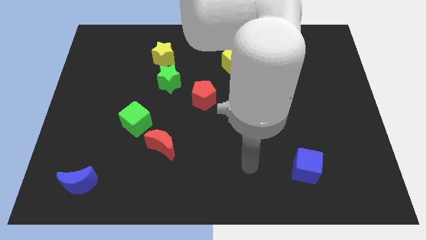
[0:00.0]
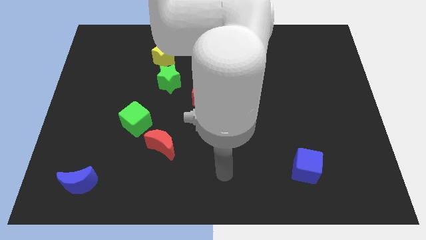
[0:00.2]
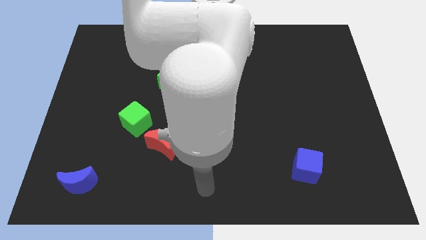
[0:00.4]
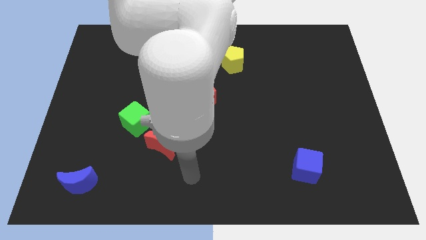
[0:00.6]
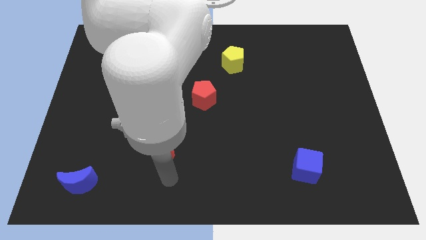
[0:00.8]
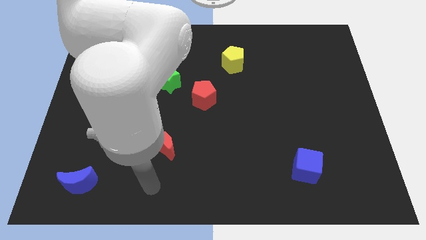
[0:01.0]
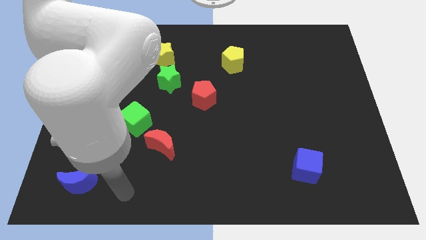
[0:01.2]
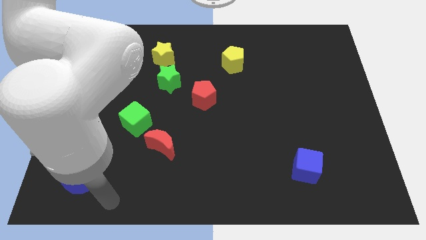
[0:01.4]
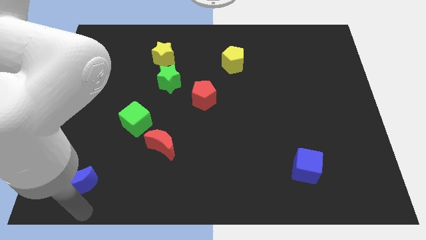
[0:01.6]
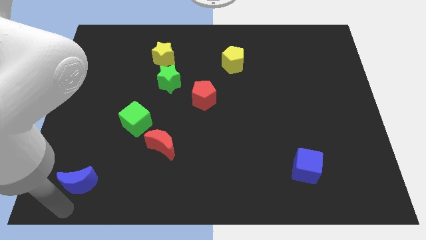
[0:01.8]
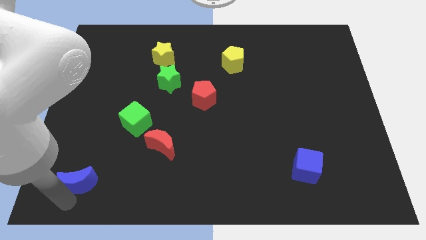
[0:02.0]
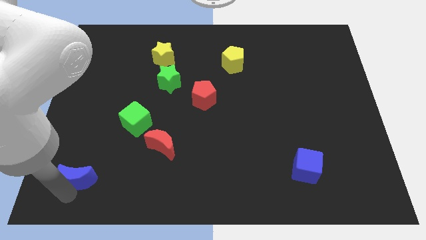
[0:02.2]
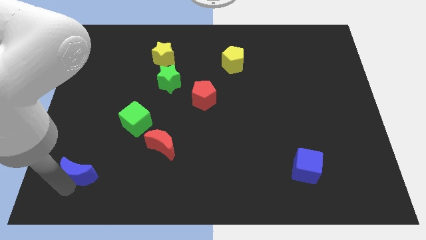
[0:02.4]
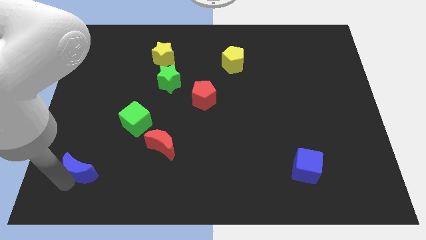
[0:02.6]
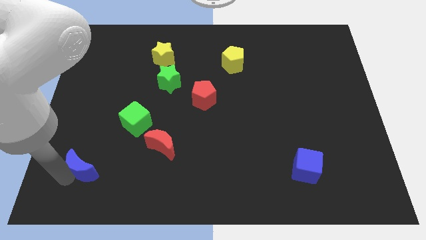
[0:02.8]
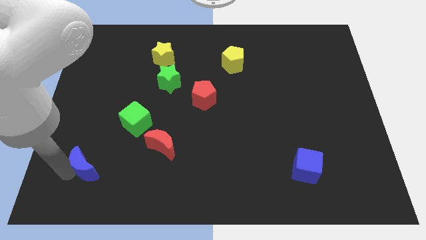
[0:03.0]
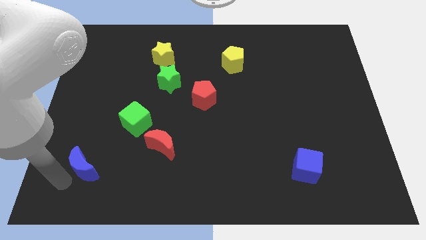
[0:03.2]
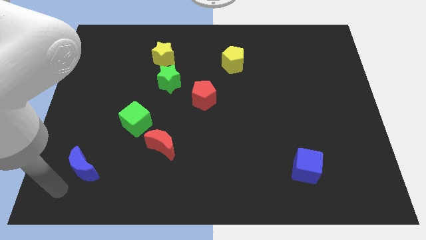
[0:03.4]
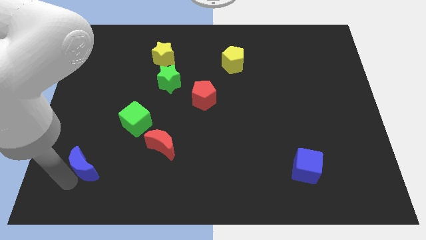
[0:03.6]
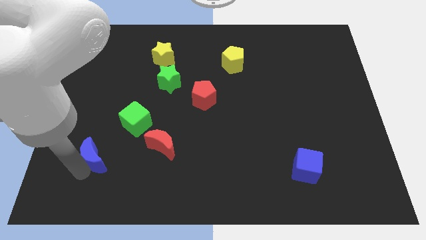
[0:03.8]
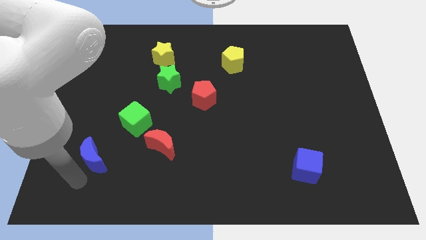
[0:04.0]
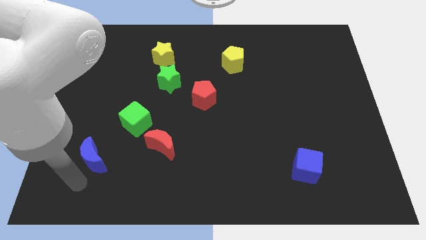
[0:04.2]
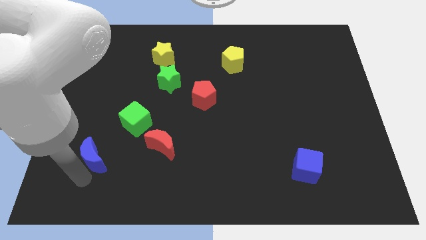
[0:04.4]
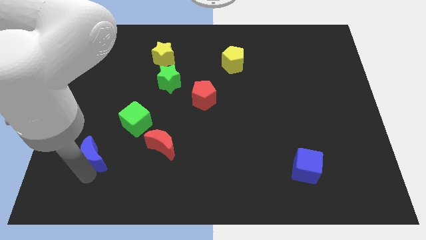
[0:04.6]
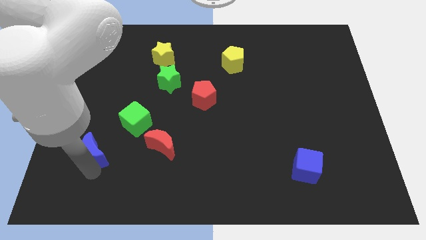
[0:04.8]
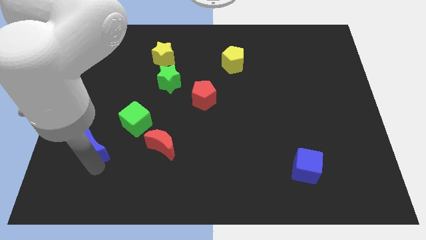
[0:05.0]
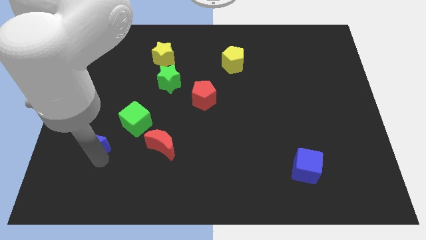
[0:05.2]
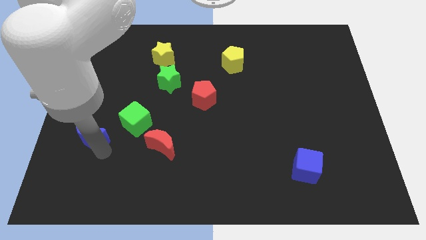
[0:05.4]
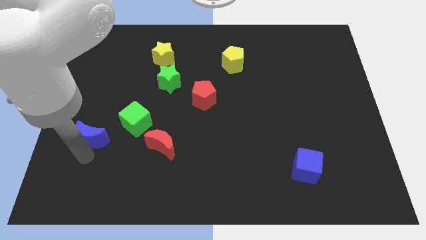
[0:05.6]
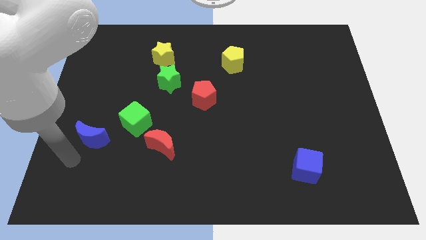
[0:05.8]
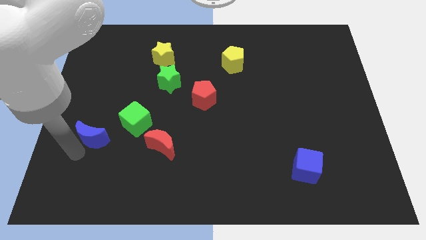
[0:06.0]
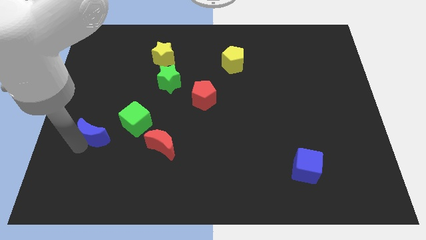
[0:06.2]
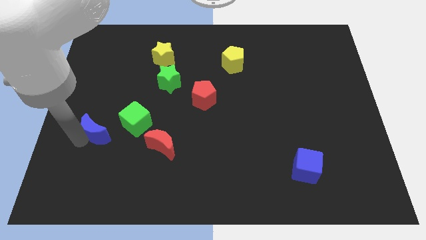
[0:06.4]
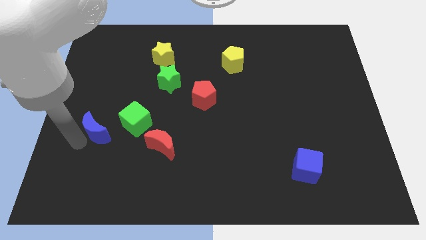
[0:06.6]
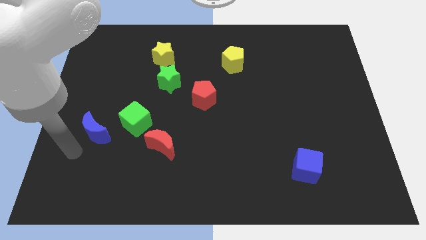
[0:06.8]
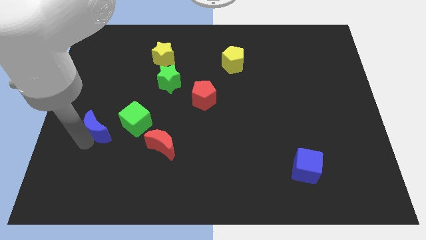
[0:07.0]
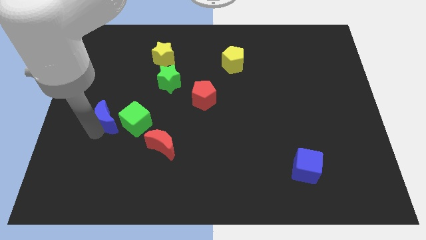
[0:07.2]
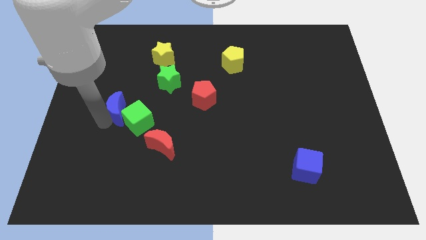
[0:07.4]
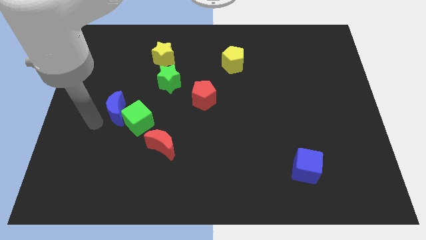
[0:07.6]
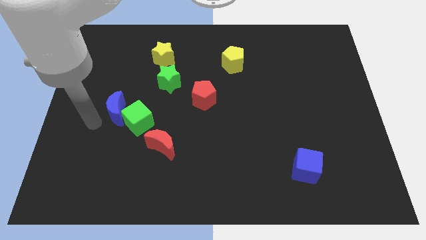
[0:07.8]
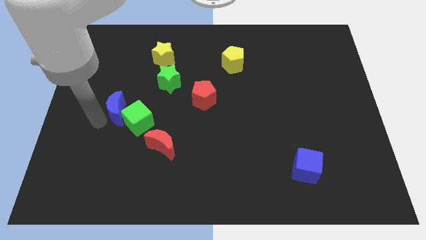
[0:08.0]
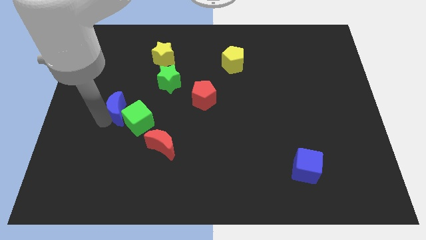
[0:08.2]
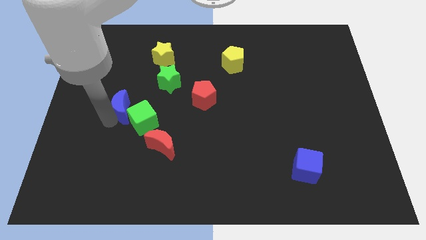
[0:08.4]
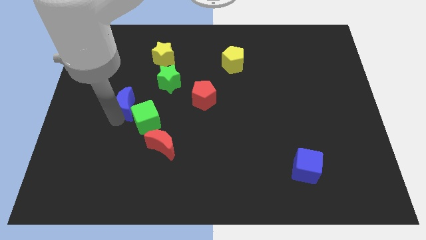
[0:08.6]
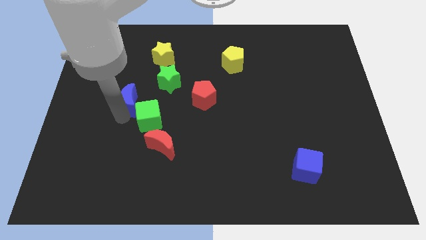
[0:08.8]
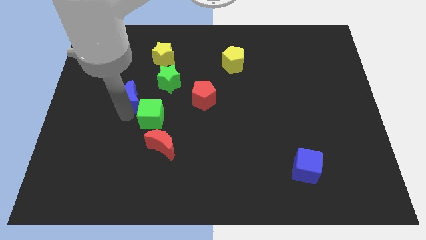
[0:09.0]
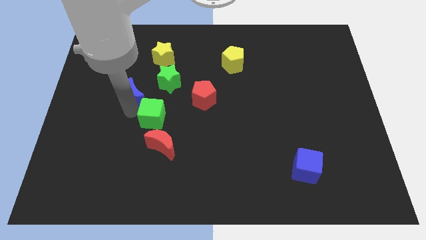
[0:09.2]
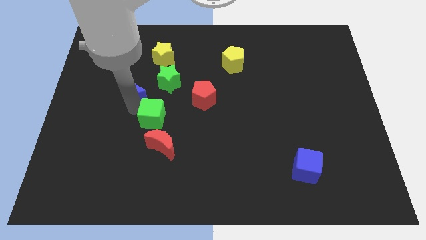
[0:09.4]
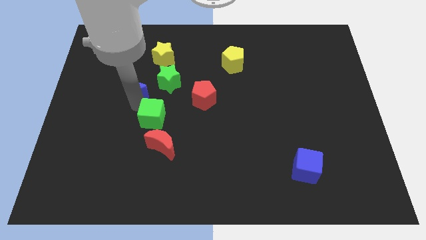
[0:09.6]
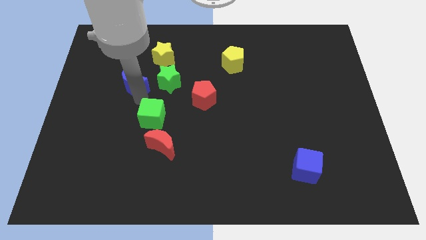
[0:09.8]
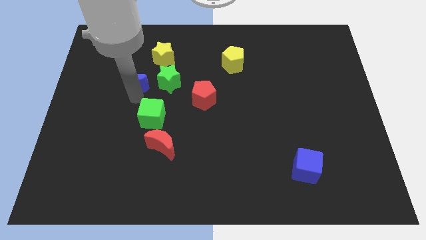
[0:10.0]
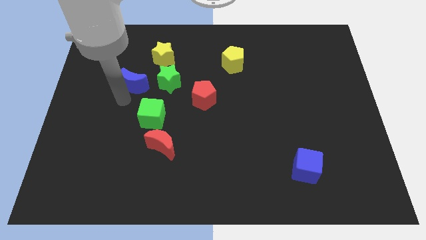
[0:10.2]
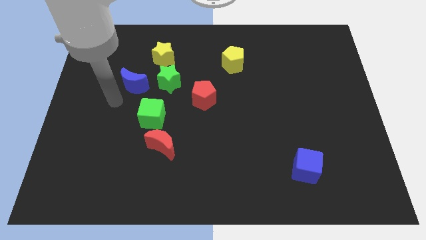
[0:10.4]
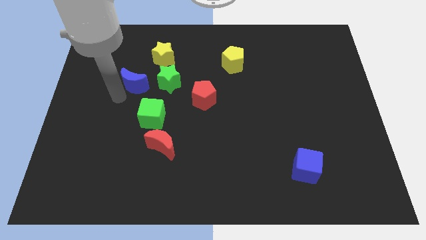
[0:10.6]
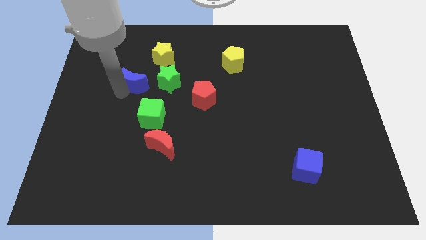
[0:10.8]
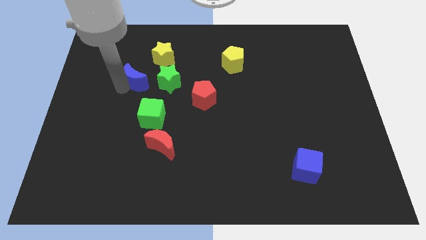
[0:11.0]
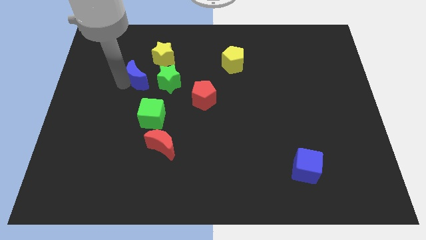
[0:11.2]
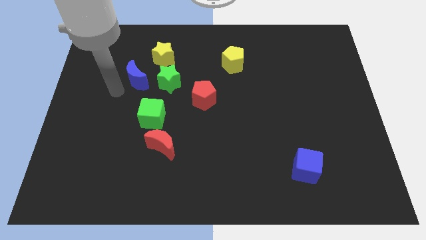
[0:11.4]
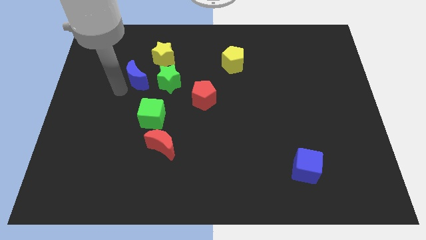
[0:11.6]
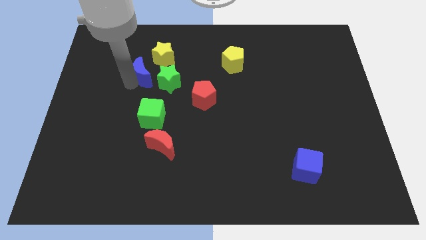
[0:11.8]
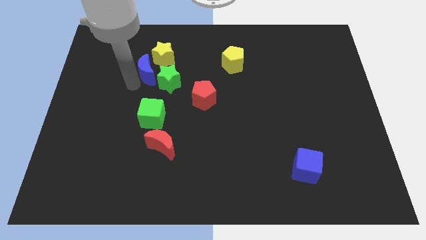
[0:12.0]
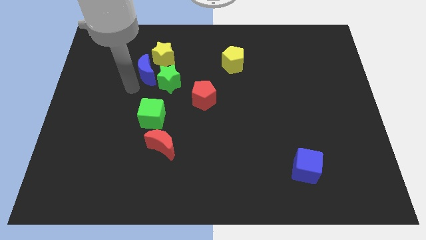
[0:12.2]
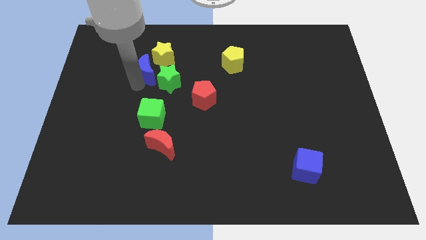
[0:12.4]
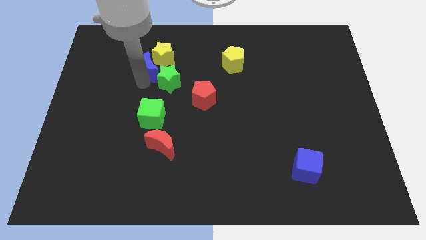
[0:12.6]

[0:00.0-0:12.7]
move the blue moon next to the yellow star

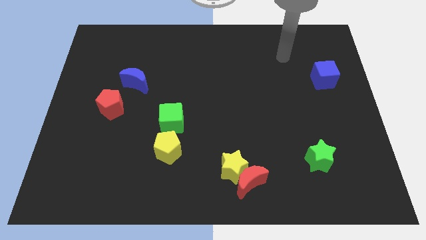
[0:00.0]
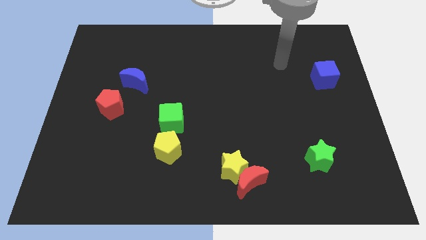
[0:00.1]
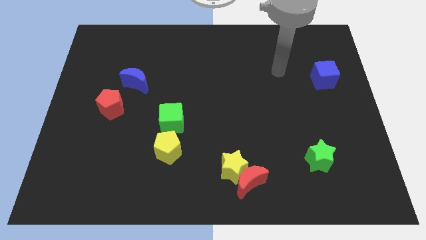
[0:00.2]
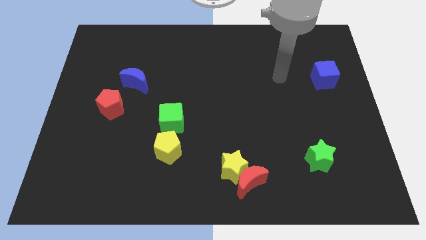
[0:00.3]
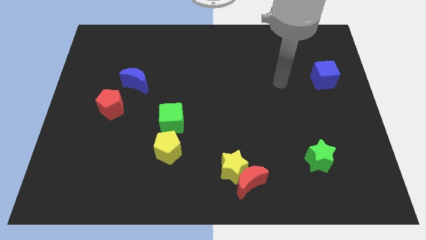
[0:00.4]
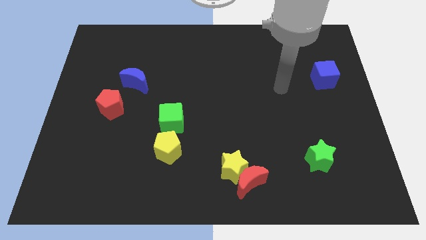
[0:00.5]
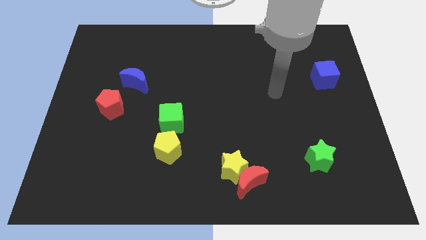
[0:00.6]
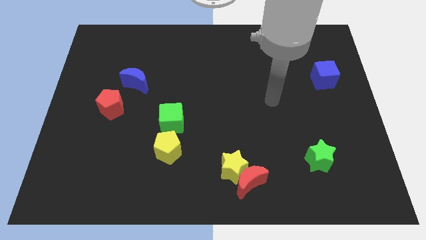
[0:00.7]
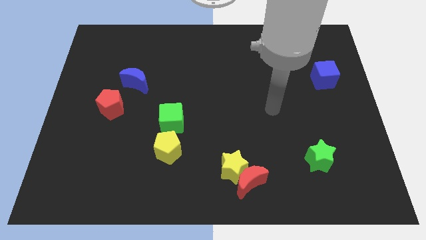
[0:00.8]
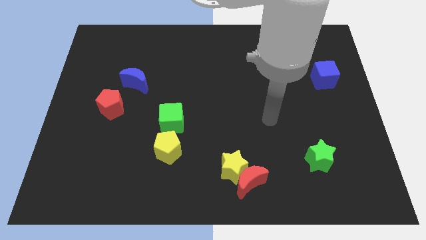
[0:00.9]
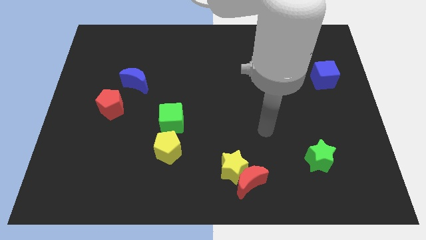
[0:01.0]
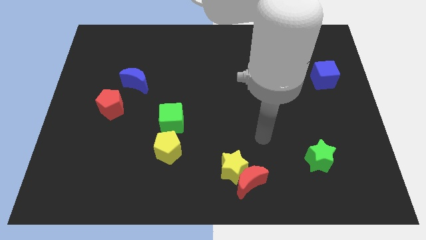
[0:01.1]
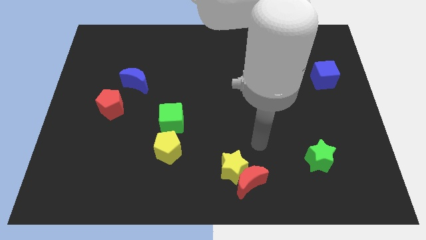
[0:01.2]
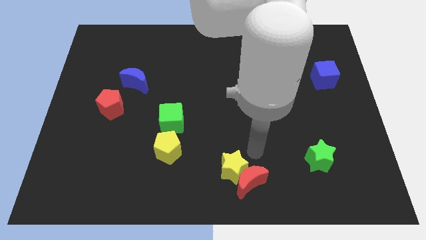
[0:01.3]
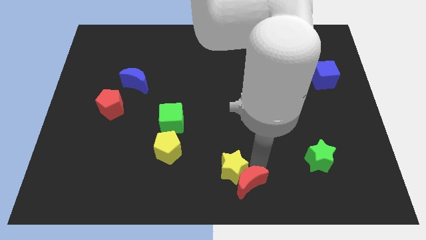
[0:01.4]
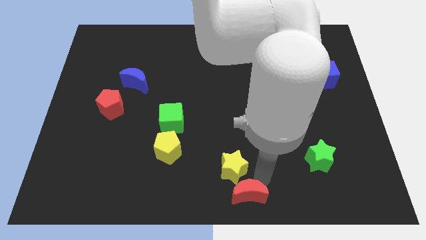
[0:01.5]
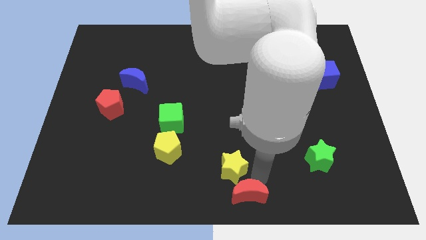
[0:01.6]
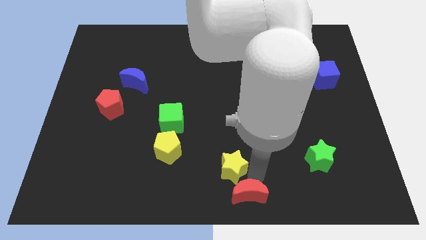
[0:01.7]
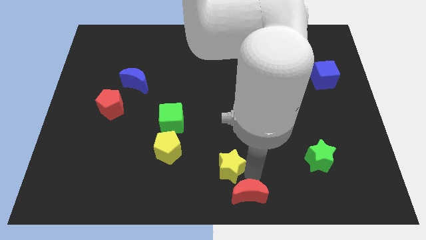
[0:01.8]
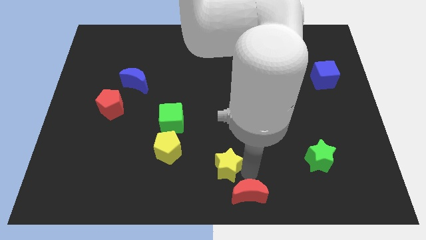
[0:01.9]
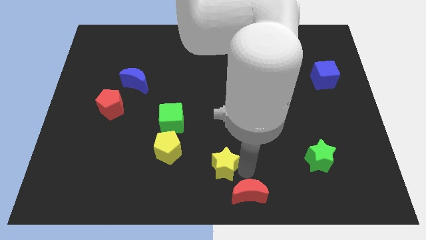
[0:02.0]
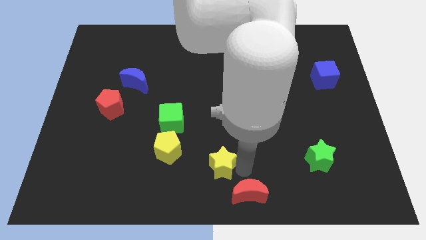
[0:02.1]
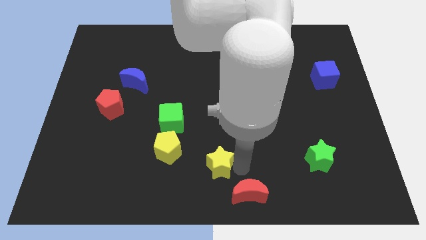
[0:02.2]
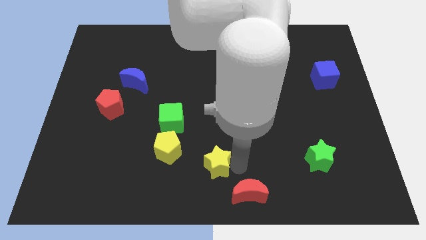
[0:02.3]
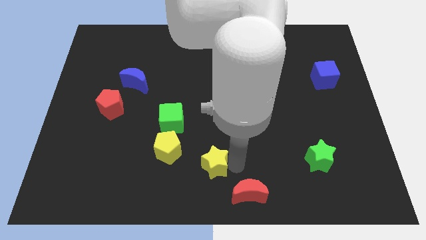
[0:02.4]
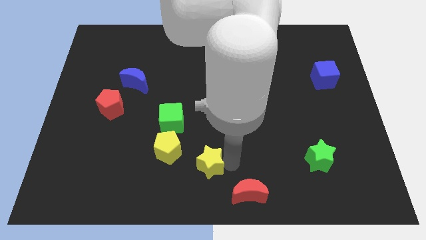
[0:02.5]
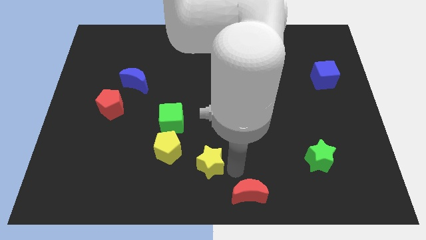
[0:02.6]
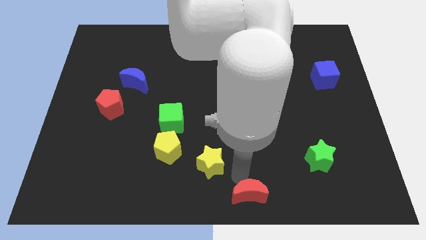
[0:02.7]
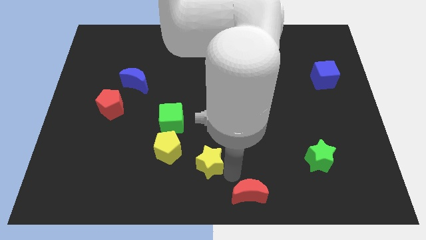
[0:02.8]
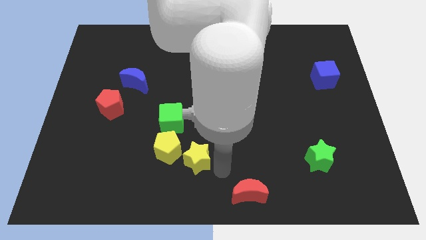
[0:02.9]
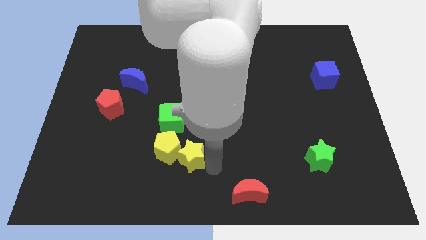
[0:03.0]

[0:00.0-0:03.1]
put the yellow star to the yellow pentagon
